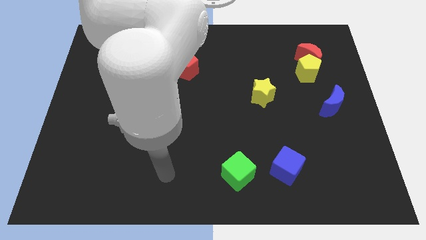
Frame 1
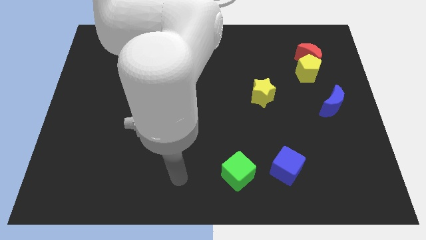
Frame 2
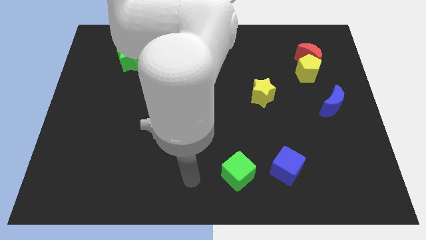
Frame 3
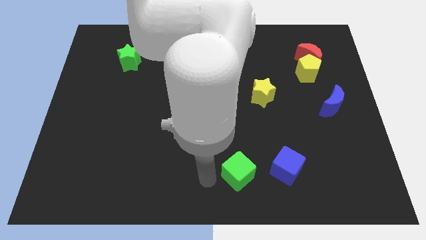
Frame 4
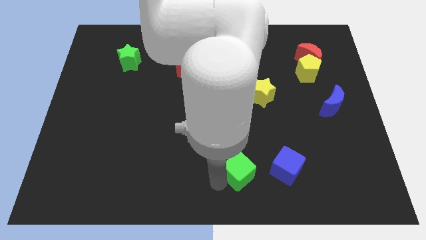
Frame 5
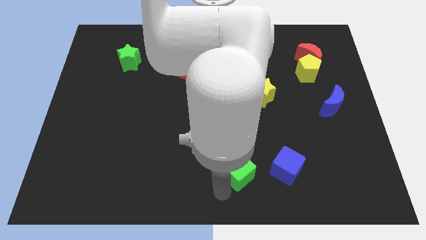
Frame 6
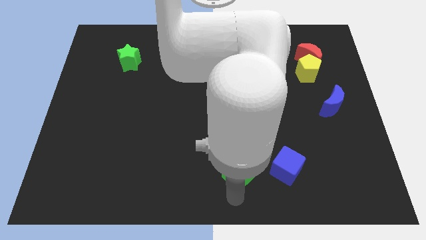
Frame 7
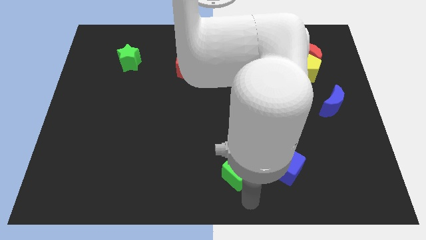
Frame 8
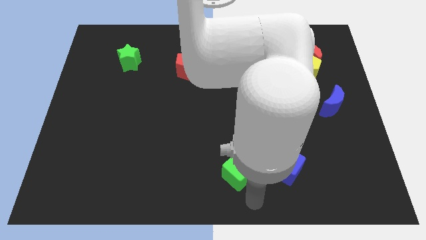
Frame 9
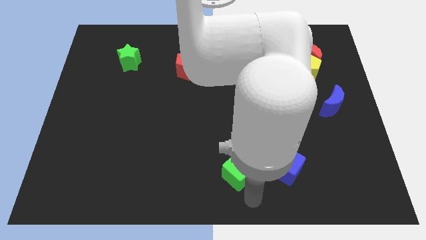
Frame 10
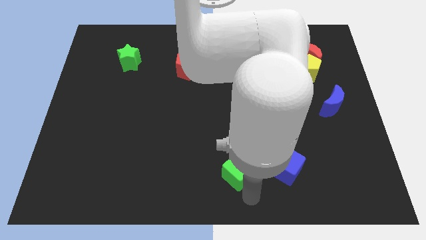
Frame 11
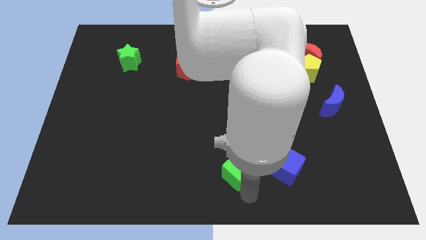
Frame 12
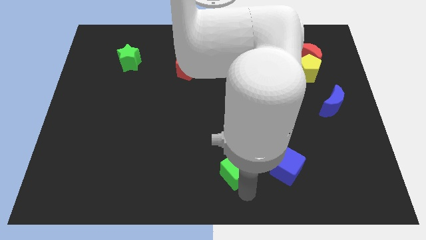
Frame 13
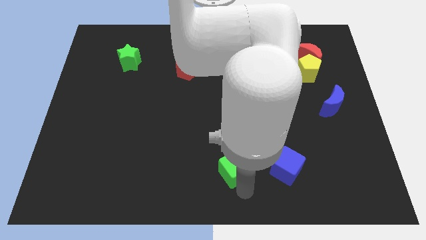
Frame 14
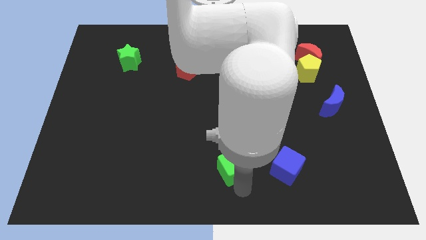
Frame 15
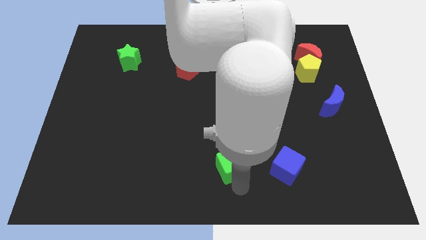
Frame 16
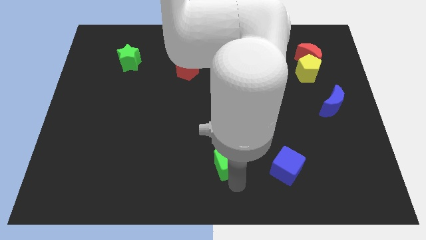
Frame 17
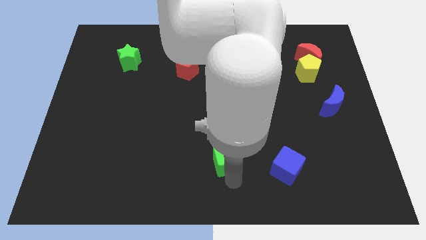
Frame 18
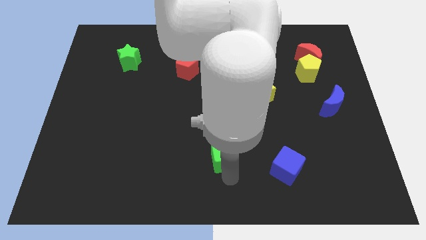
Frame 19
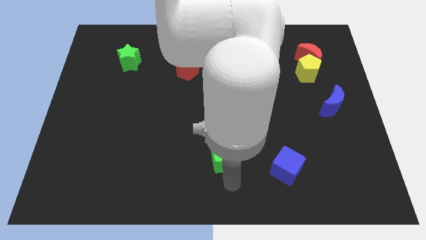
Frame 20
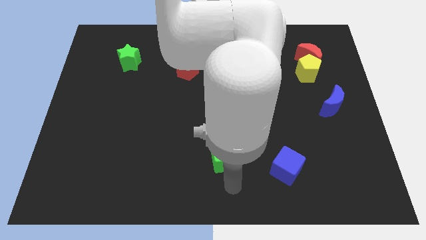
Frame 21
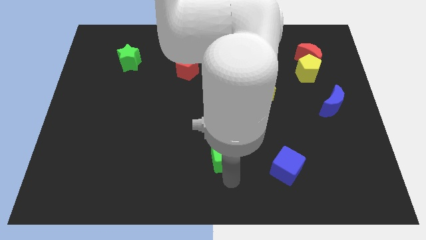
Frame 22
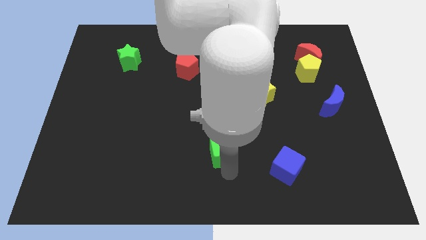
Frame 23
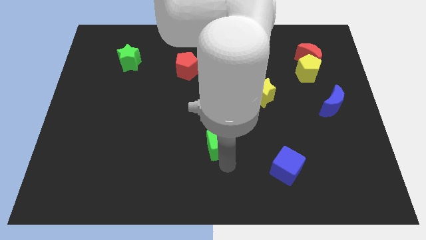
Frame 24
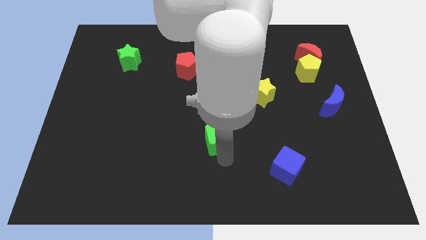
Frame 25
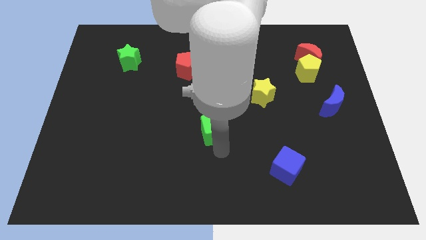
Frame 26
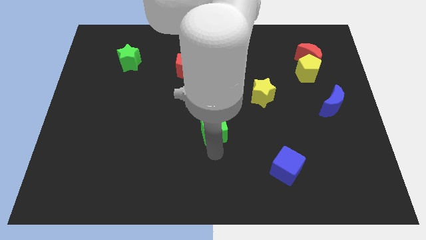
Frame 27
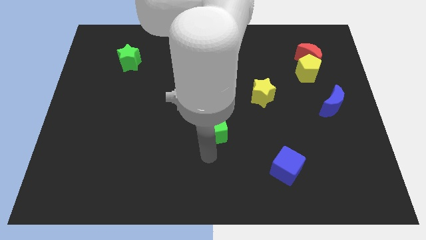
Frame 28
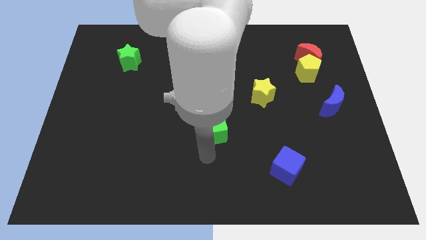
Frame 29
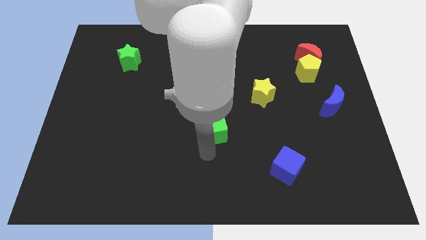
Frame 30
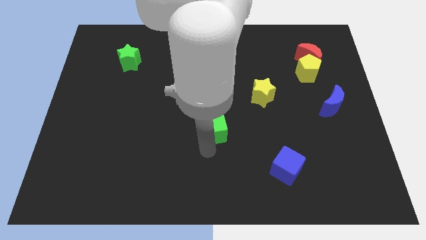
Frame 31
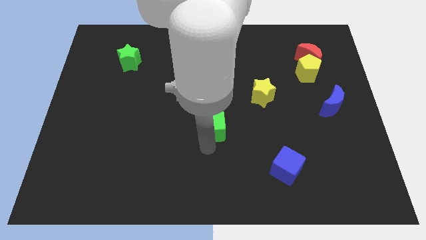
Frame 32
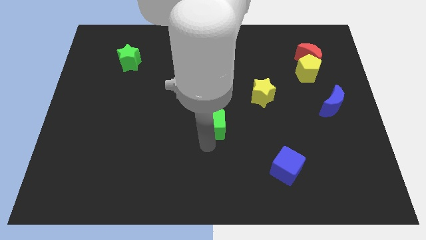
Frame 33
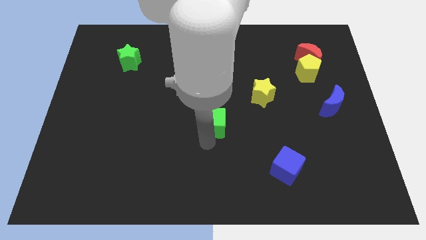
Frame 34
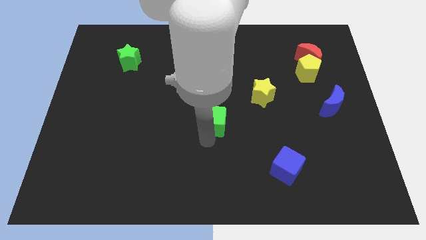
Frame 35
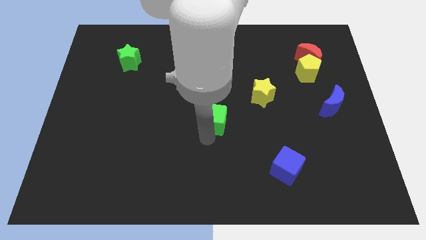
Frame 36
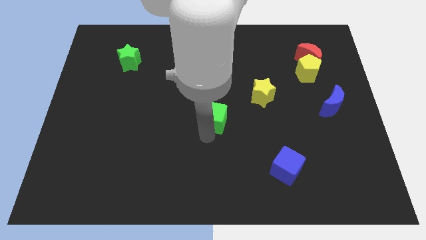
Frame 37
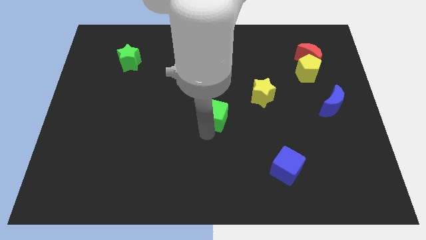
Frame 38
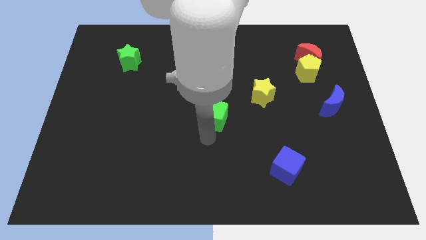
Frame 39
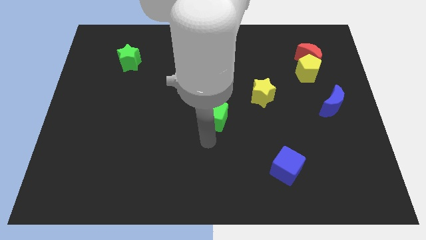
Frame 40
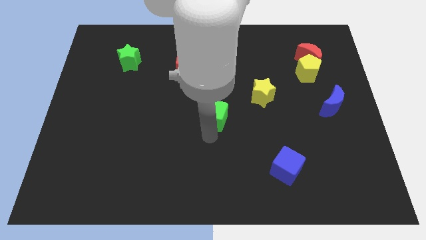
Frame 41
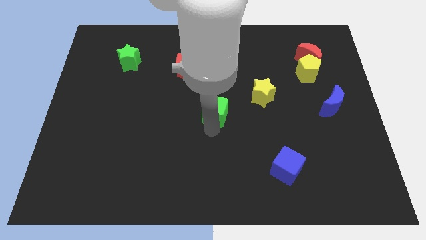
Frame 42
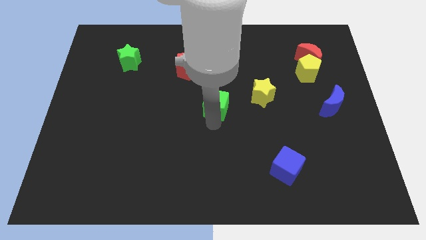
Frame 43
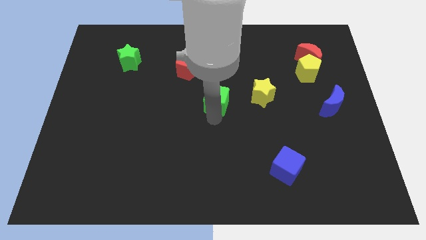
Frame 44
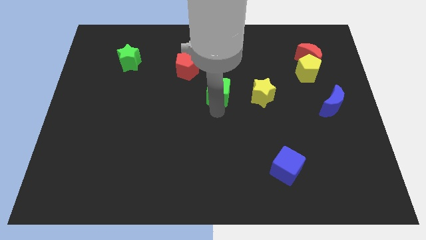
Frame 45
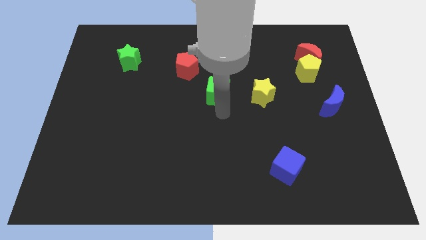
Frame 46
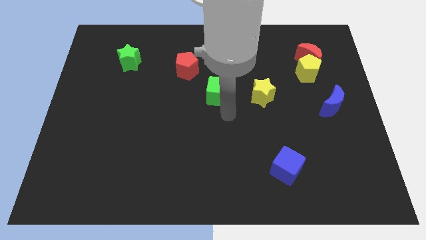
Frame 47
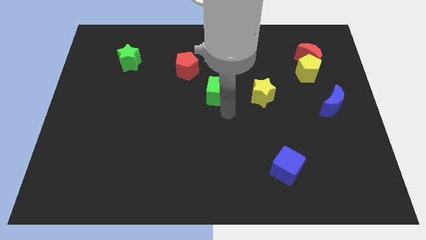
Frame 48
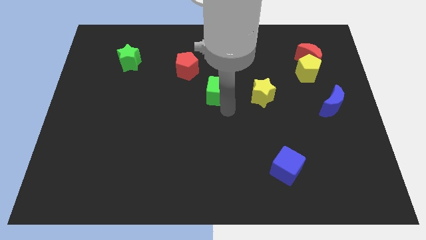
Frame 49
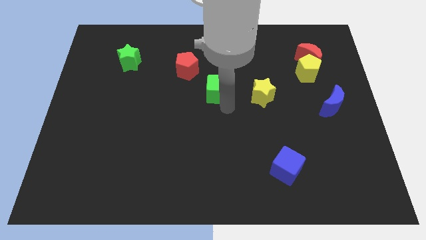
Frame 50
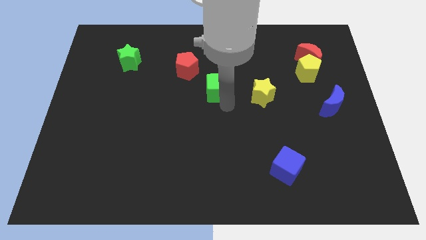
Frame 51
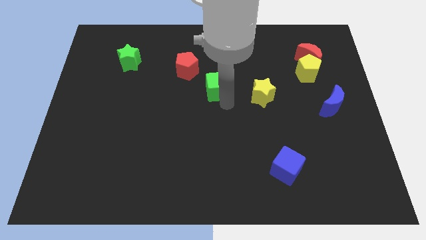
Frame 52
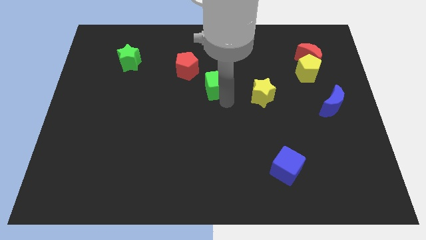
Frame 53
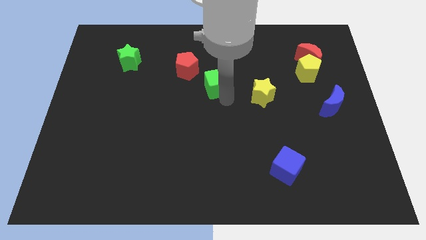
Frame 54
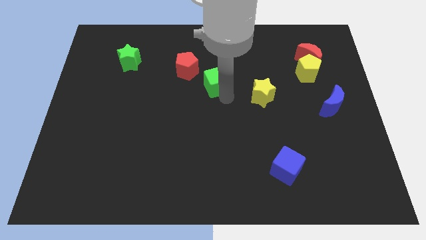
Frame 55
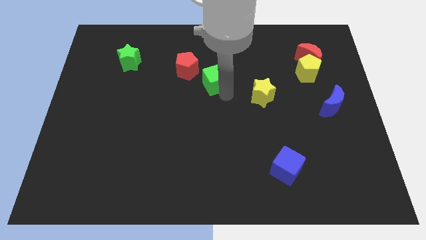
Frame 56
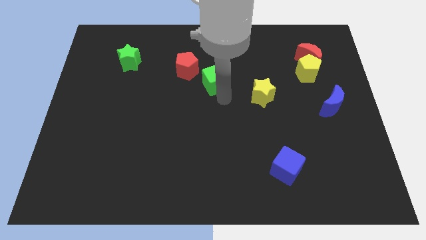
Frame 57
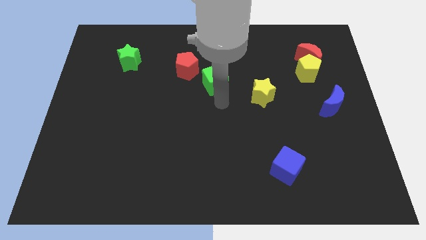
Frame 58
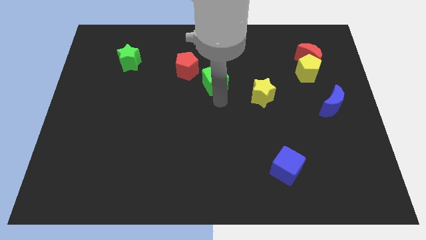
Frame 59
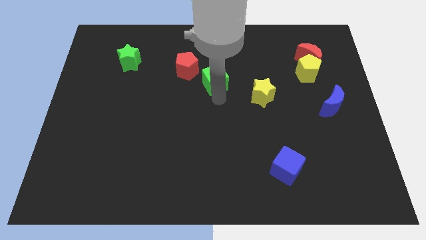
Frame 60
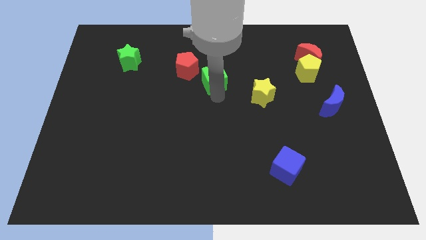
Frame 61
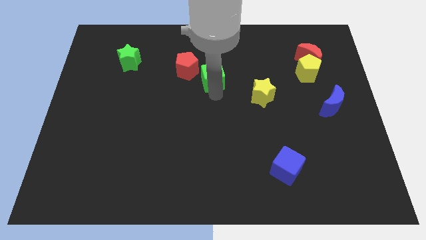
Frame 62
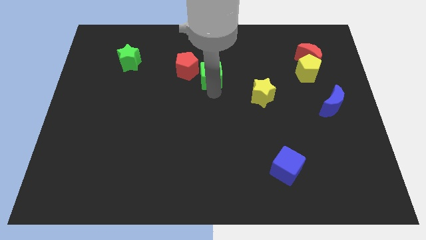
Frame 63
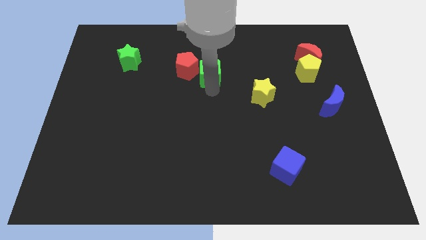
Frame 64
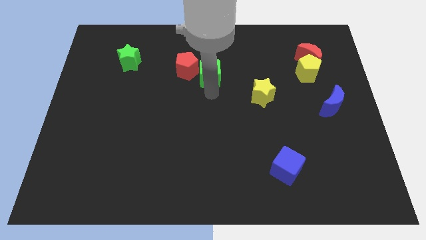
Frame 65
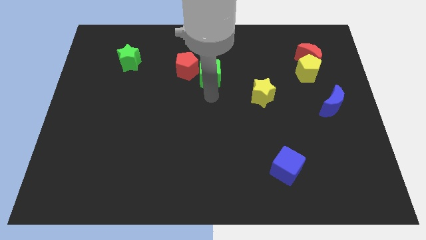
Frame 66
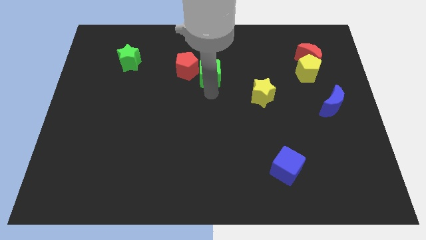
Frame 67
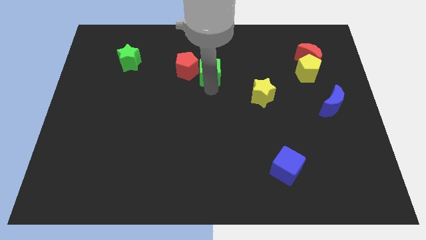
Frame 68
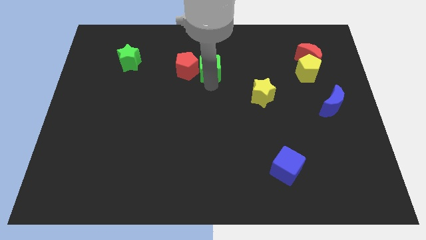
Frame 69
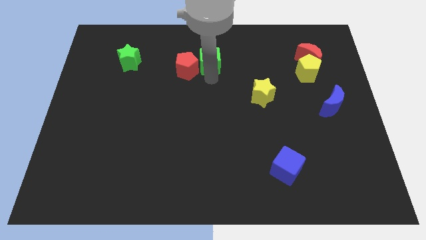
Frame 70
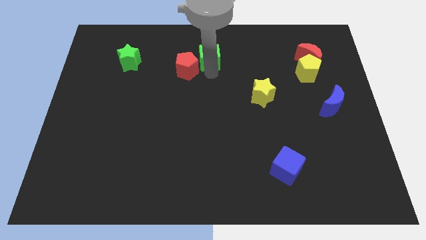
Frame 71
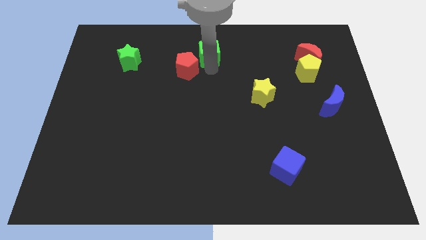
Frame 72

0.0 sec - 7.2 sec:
slide the green cube to the top side
